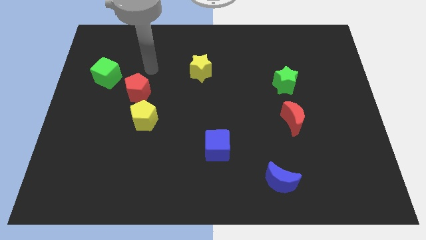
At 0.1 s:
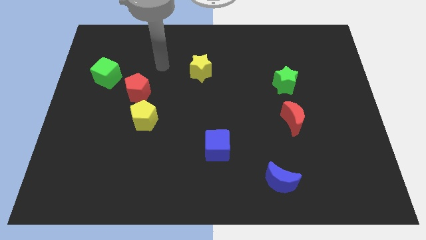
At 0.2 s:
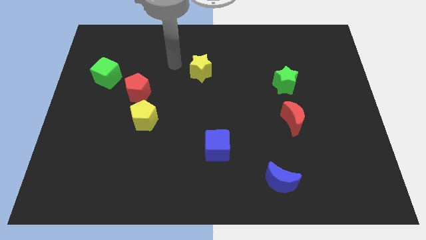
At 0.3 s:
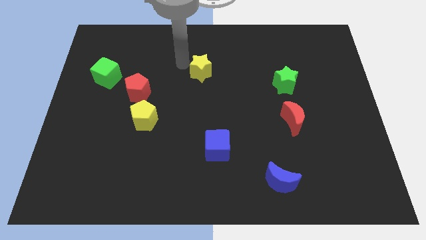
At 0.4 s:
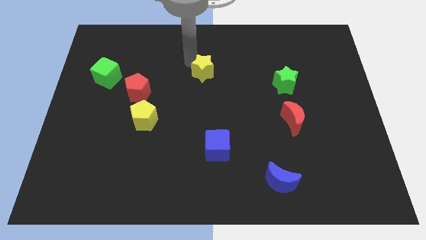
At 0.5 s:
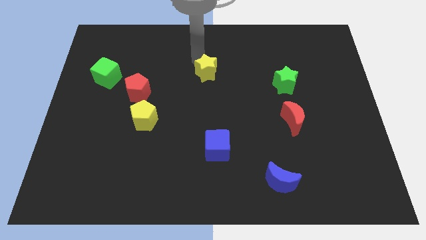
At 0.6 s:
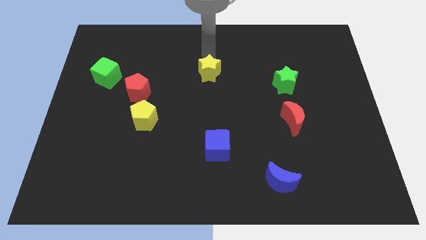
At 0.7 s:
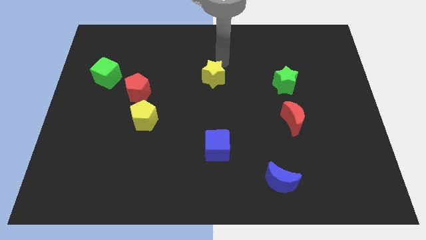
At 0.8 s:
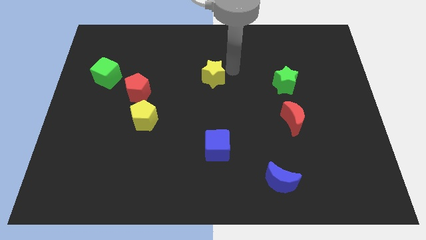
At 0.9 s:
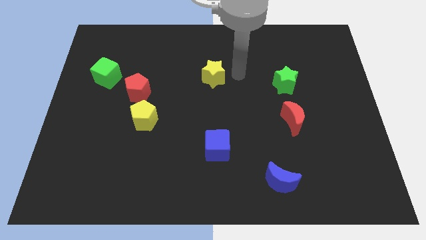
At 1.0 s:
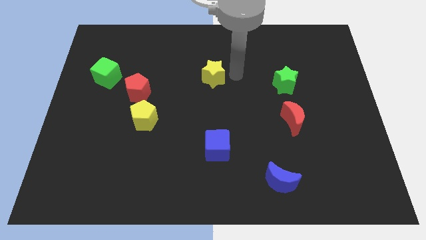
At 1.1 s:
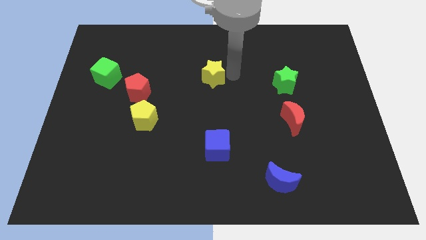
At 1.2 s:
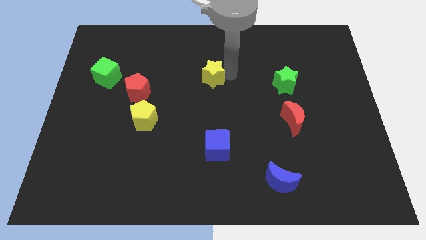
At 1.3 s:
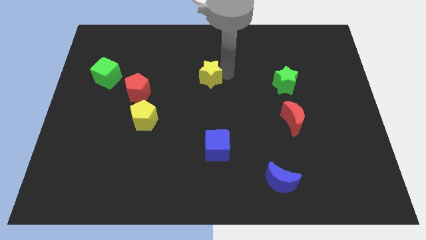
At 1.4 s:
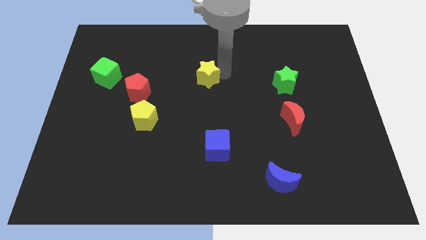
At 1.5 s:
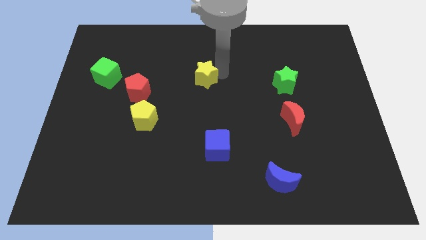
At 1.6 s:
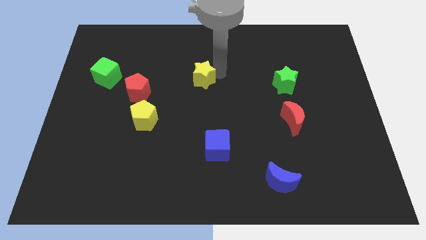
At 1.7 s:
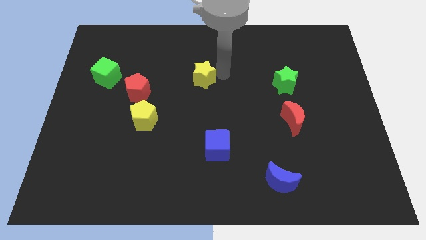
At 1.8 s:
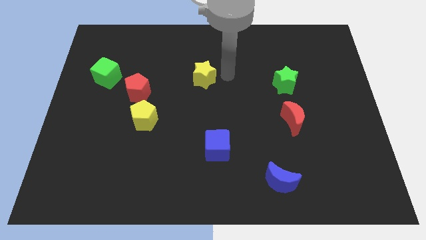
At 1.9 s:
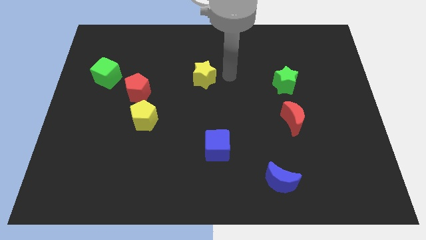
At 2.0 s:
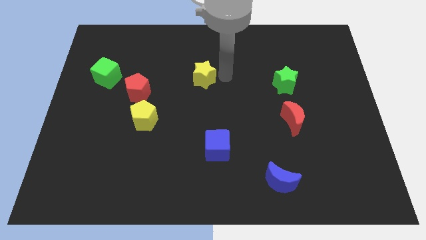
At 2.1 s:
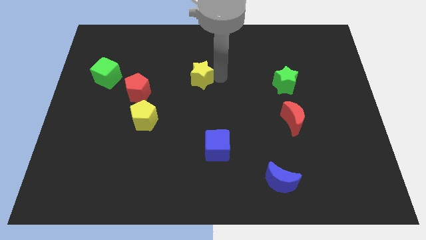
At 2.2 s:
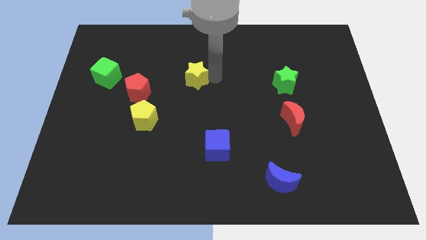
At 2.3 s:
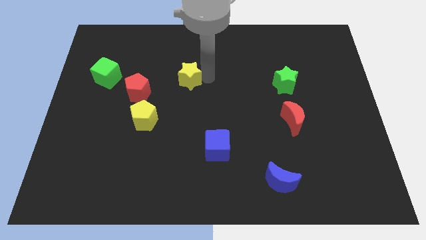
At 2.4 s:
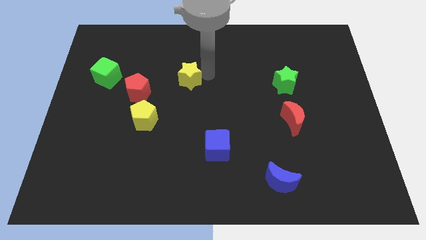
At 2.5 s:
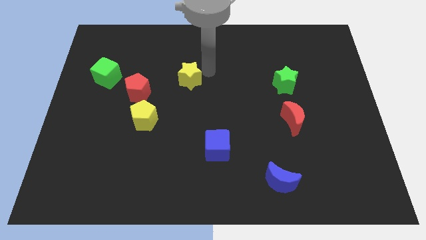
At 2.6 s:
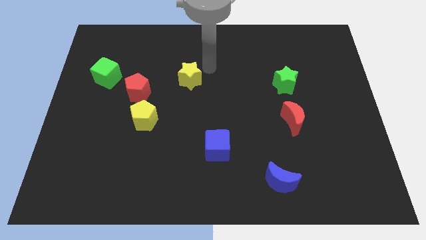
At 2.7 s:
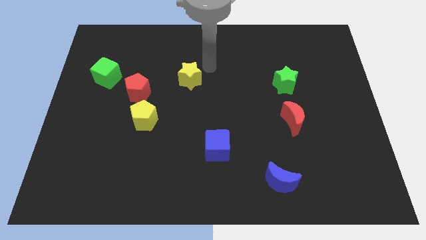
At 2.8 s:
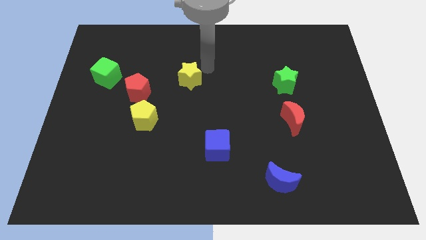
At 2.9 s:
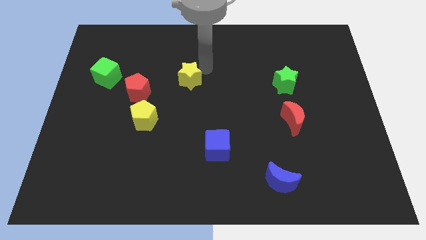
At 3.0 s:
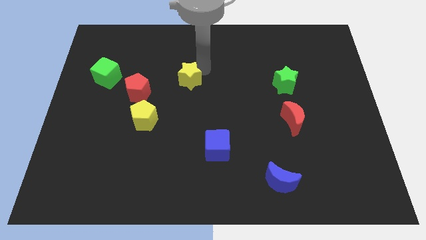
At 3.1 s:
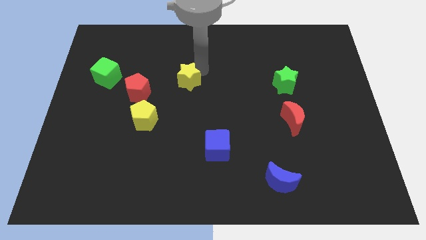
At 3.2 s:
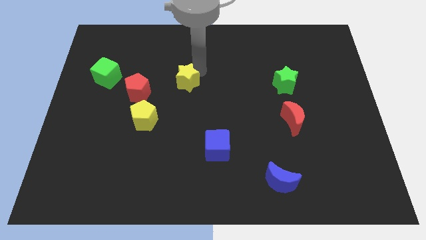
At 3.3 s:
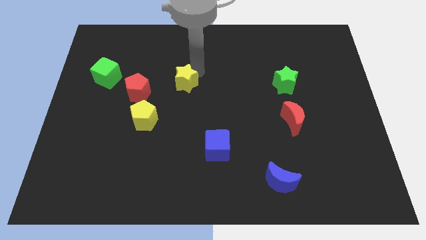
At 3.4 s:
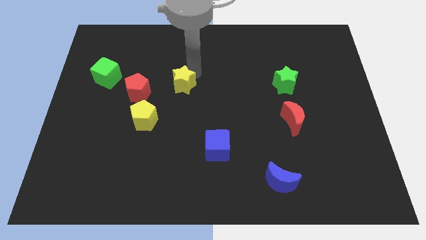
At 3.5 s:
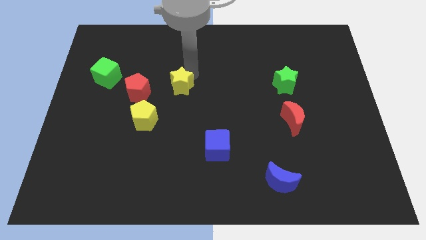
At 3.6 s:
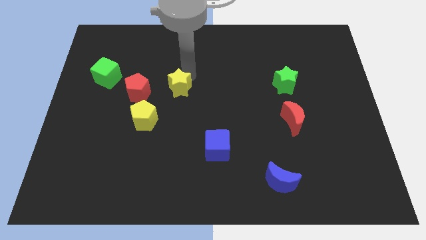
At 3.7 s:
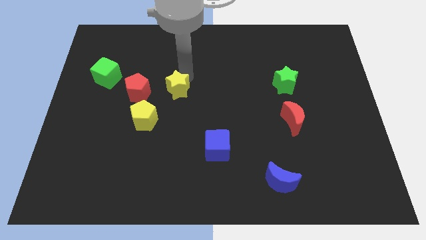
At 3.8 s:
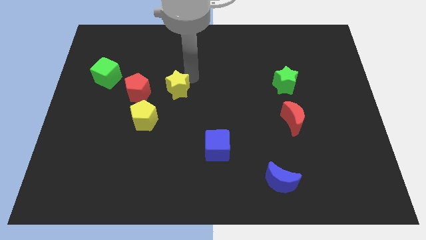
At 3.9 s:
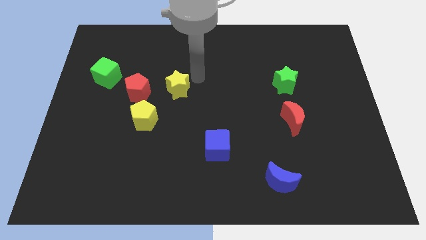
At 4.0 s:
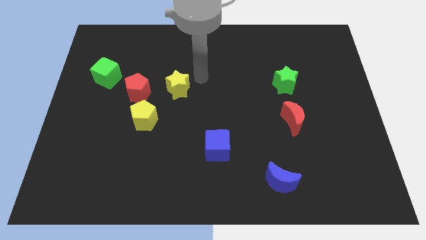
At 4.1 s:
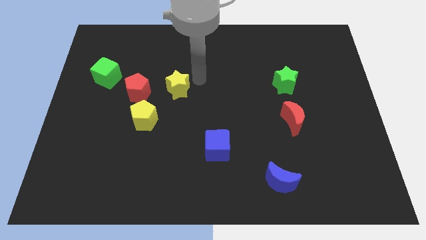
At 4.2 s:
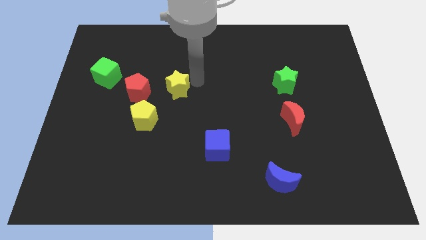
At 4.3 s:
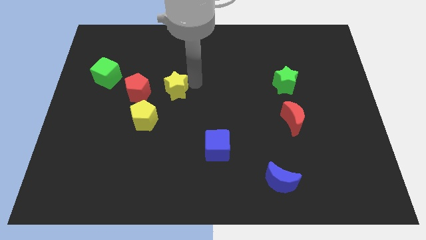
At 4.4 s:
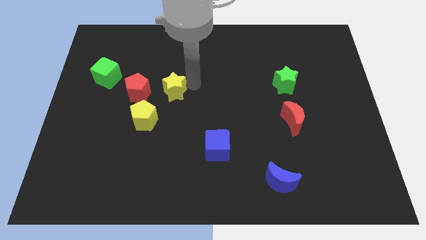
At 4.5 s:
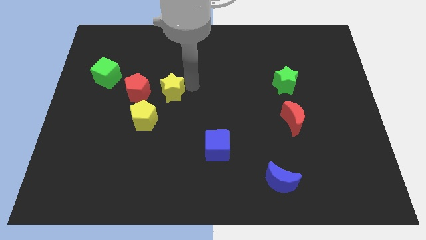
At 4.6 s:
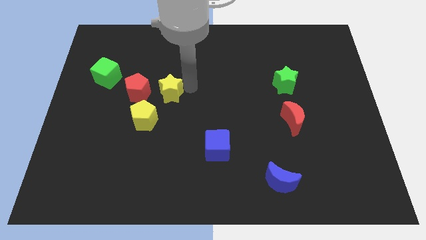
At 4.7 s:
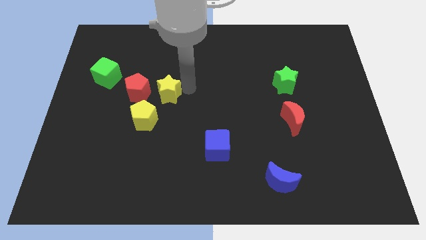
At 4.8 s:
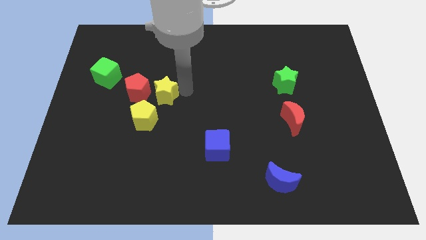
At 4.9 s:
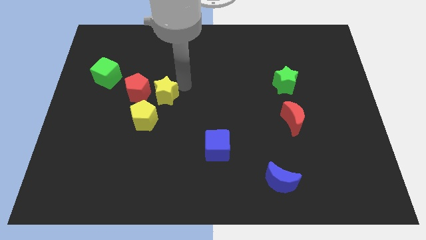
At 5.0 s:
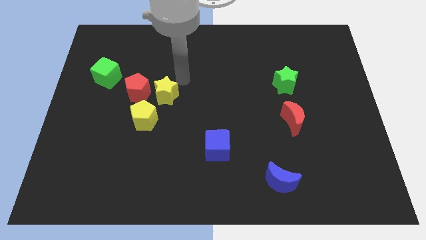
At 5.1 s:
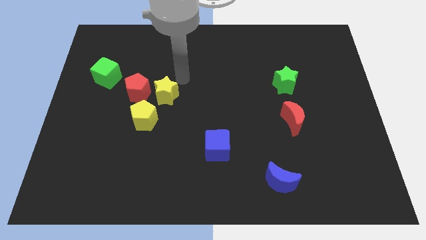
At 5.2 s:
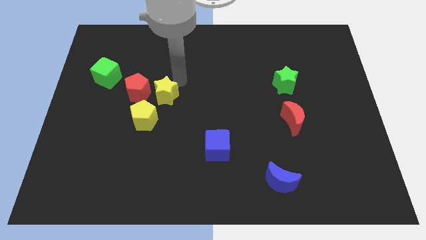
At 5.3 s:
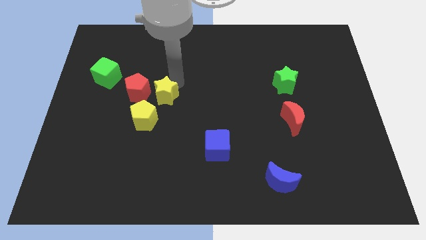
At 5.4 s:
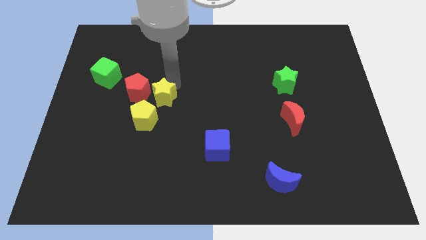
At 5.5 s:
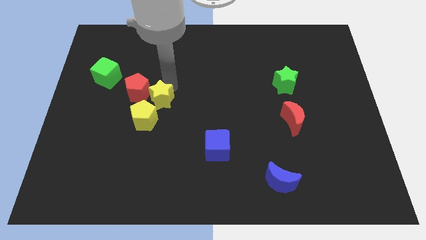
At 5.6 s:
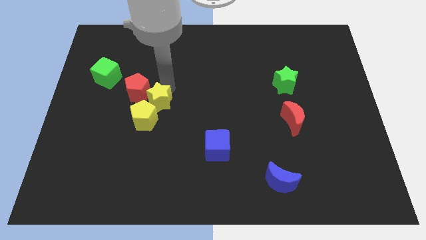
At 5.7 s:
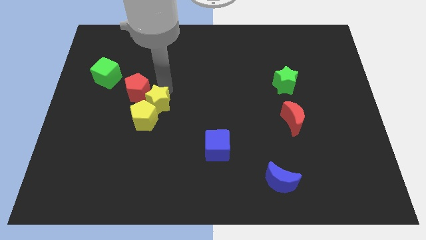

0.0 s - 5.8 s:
move the yellow star next to the yellow pentagon

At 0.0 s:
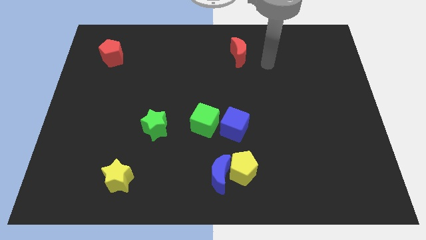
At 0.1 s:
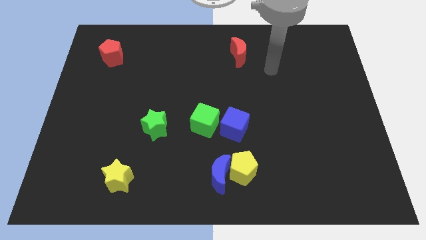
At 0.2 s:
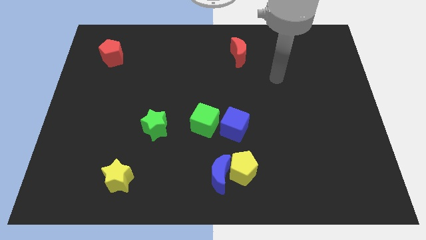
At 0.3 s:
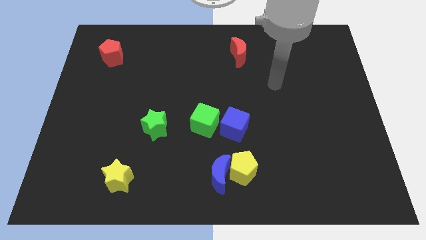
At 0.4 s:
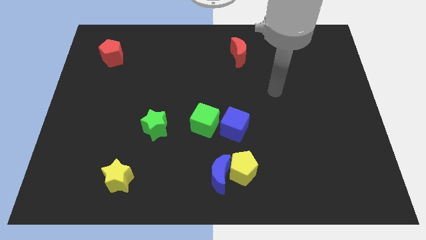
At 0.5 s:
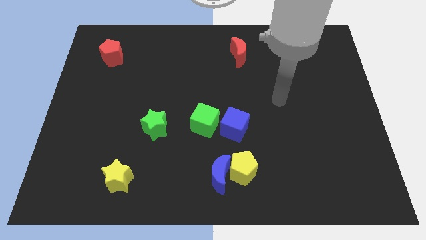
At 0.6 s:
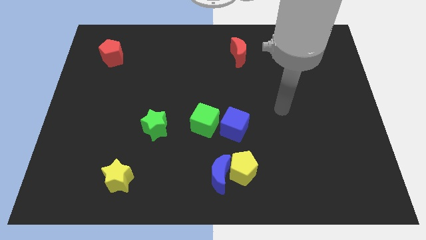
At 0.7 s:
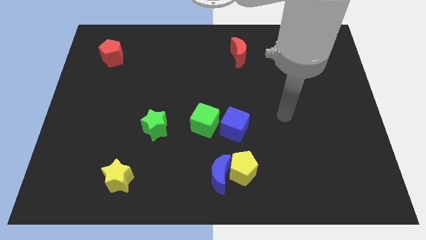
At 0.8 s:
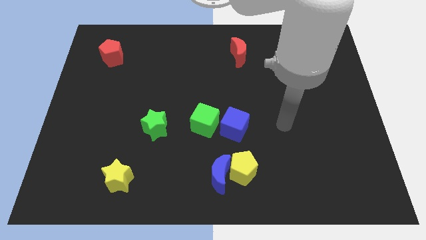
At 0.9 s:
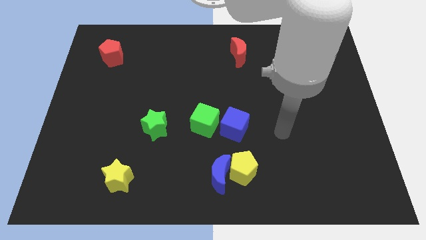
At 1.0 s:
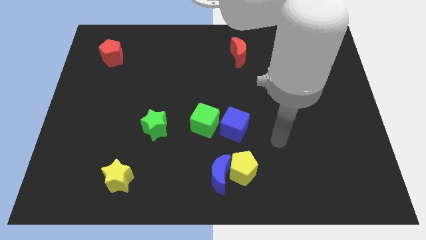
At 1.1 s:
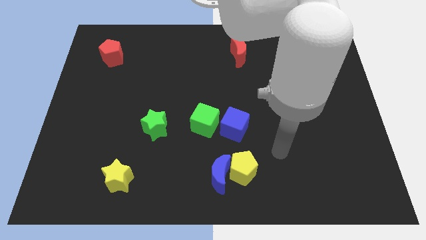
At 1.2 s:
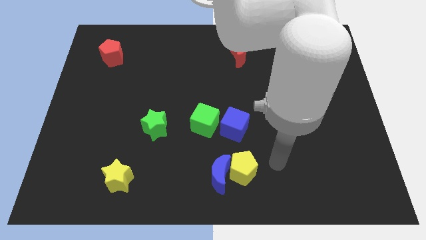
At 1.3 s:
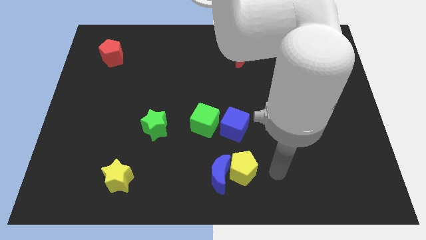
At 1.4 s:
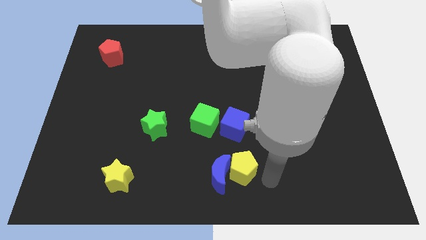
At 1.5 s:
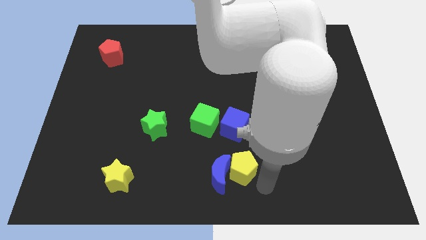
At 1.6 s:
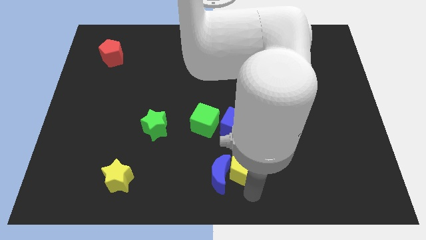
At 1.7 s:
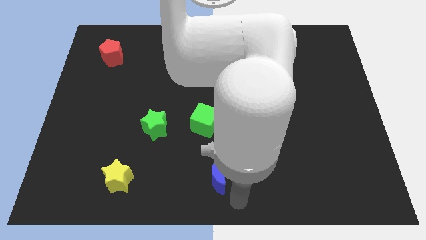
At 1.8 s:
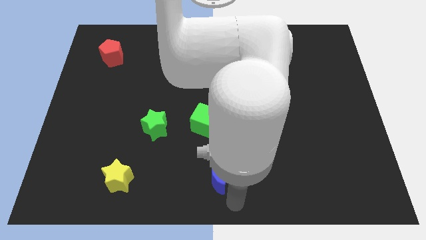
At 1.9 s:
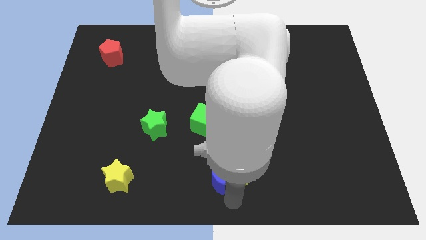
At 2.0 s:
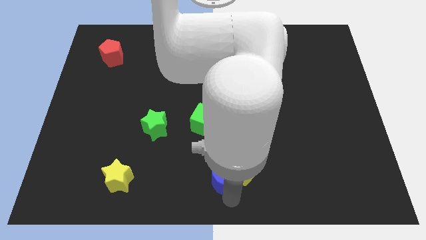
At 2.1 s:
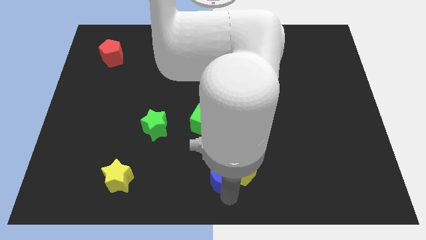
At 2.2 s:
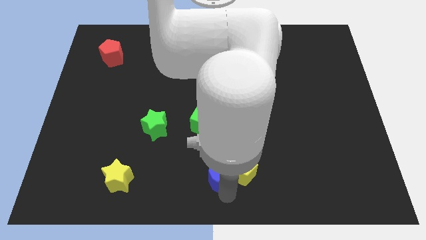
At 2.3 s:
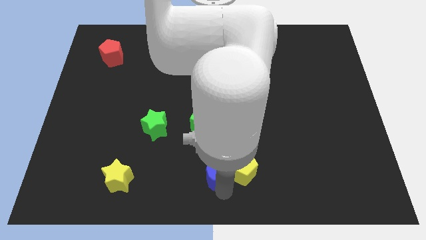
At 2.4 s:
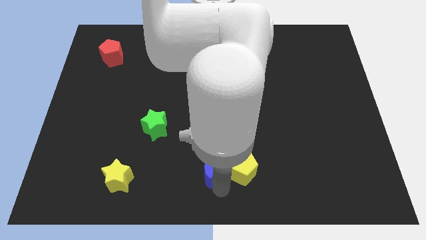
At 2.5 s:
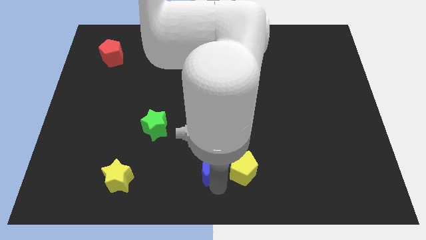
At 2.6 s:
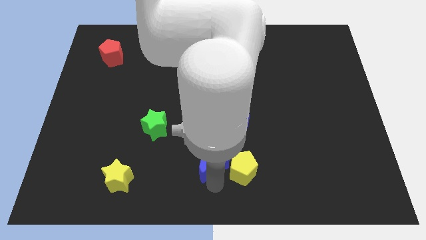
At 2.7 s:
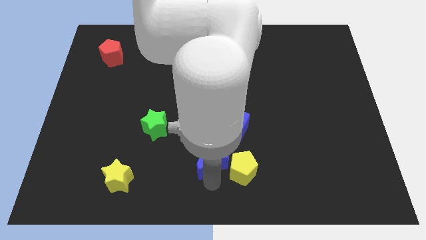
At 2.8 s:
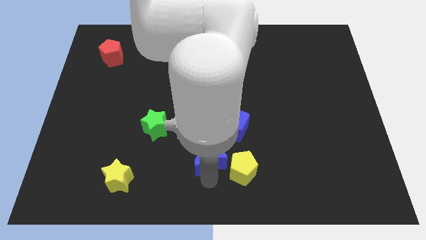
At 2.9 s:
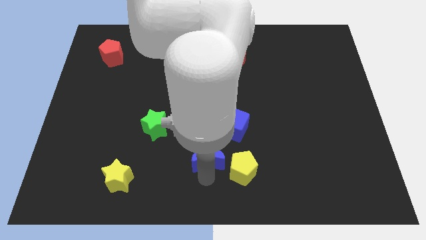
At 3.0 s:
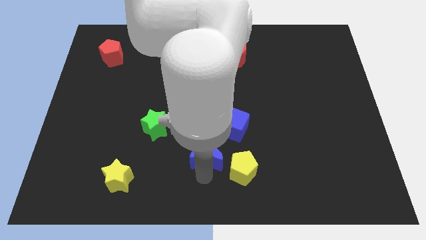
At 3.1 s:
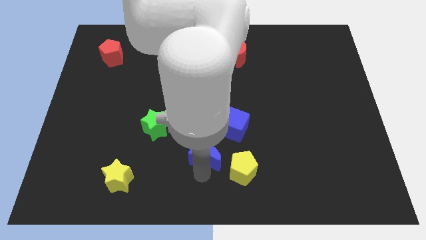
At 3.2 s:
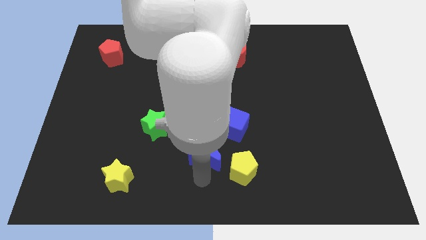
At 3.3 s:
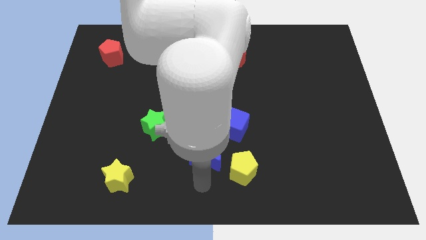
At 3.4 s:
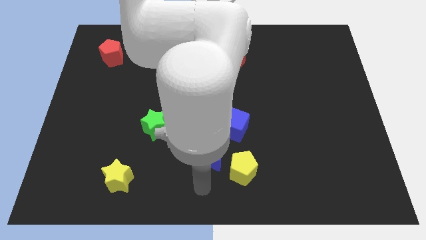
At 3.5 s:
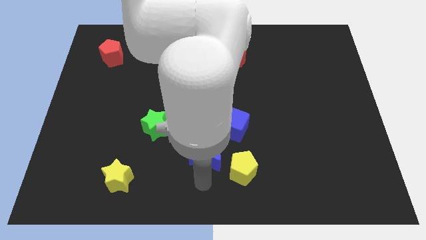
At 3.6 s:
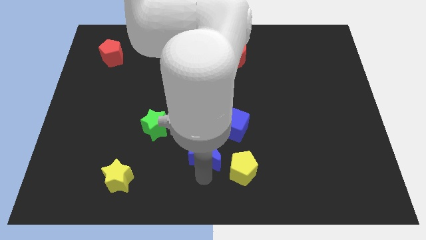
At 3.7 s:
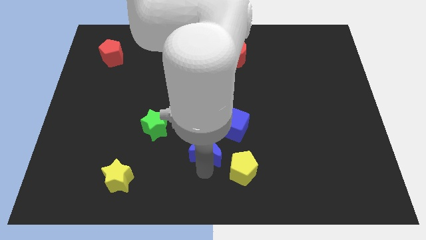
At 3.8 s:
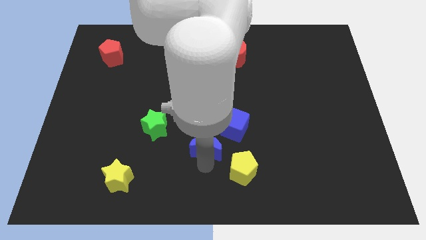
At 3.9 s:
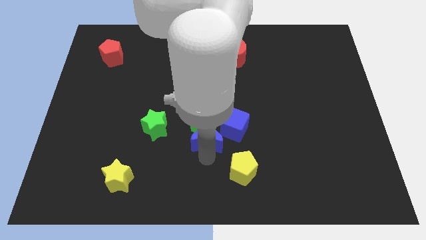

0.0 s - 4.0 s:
slide the blue moon to the green cube
